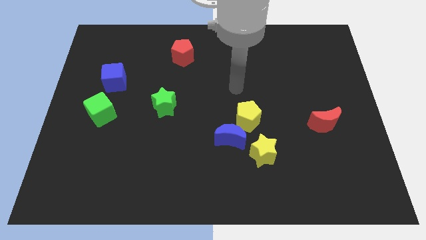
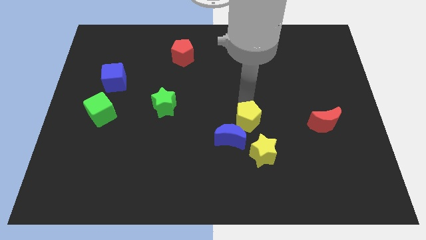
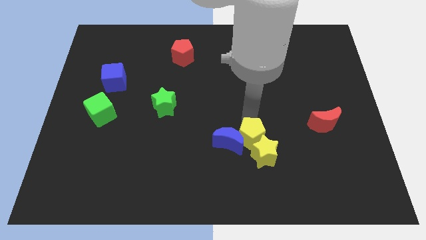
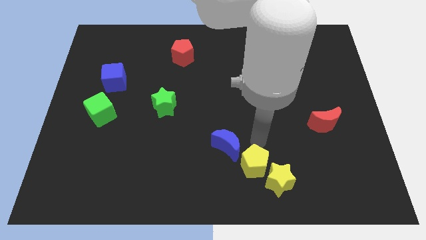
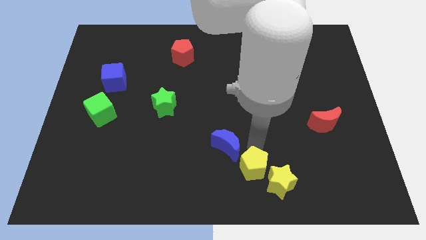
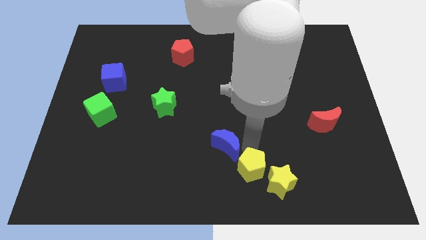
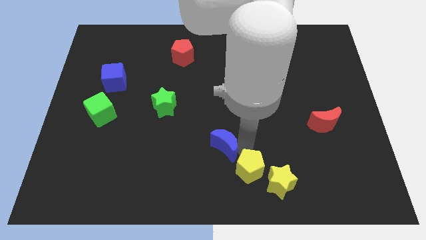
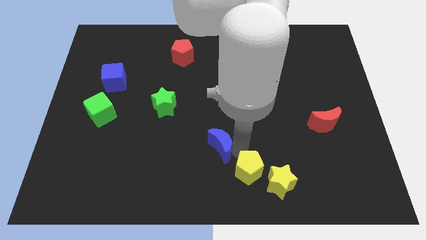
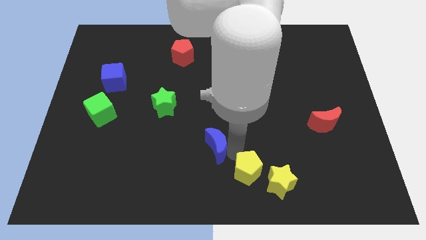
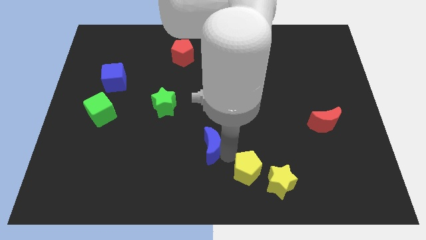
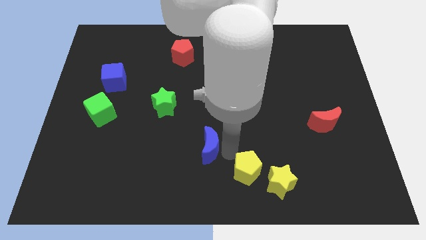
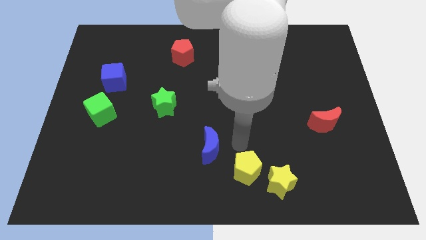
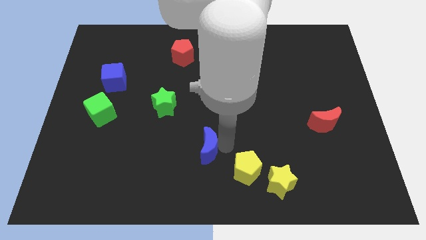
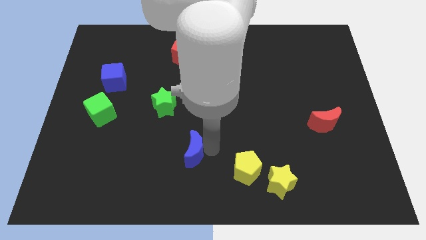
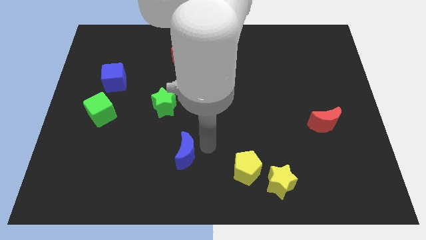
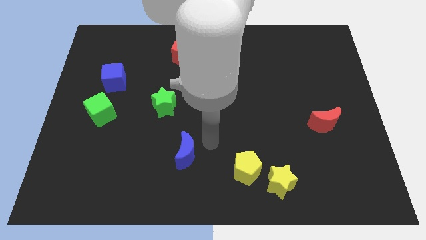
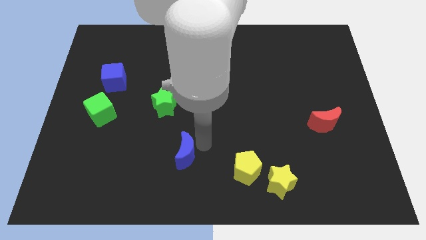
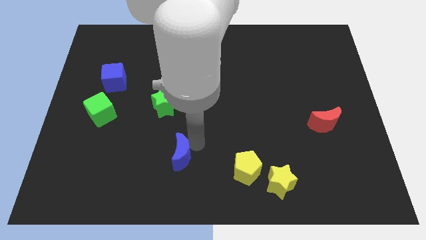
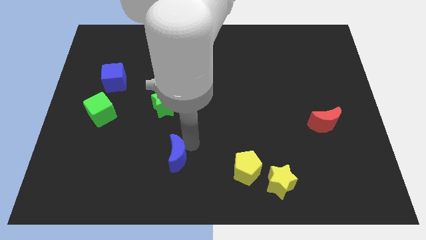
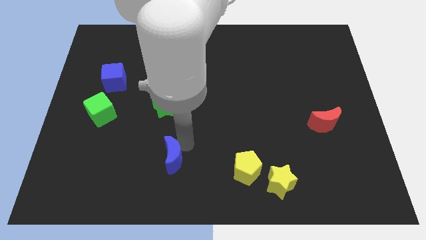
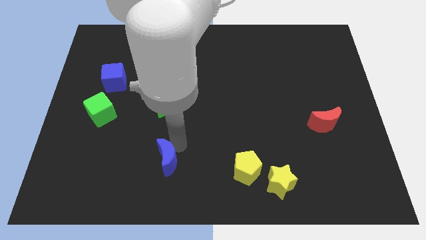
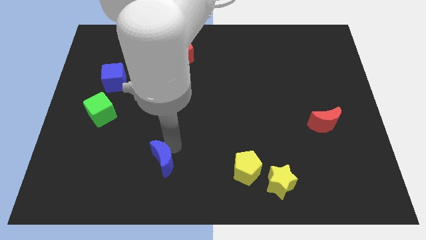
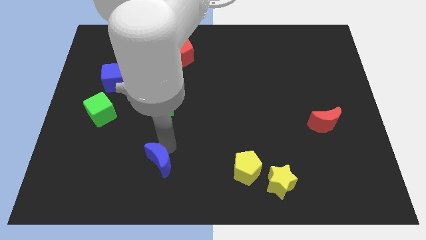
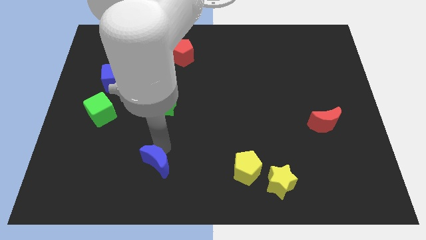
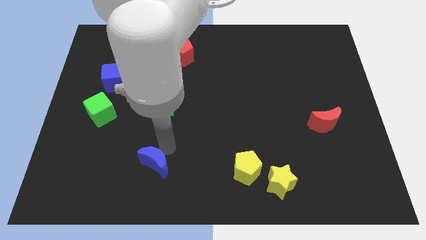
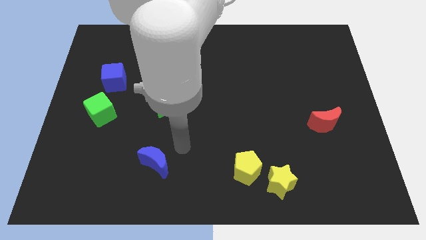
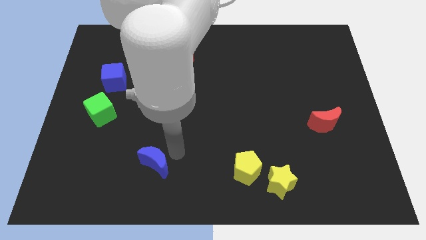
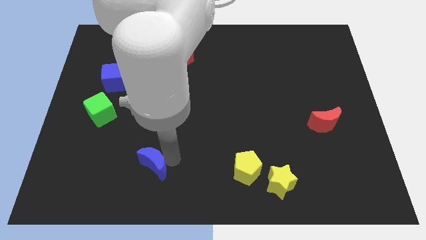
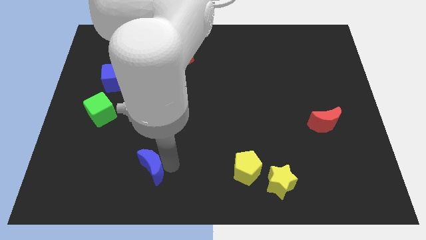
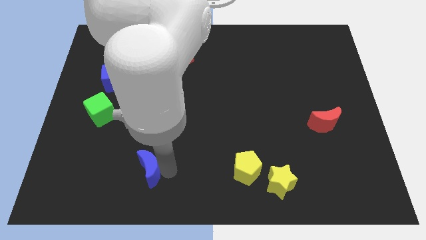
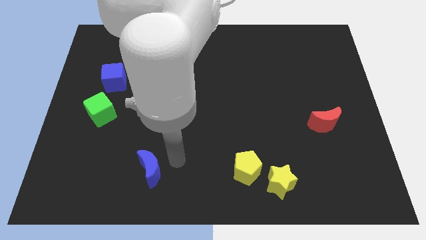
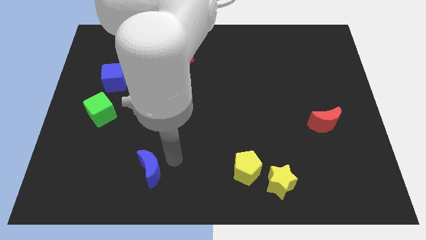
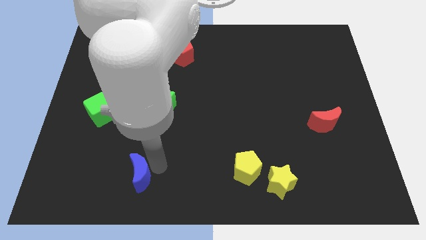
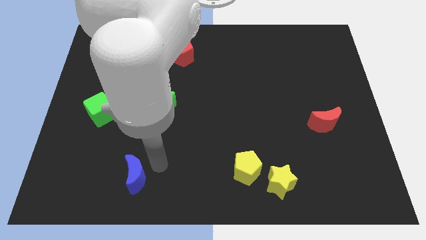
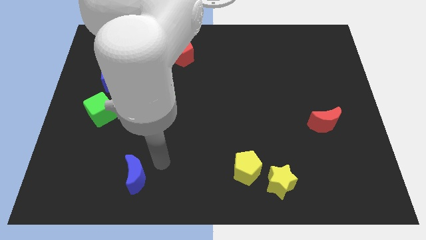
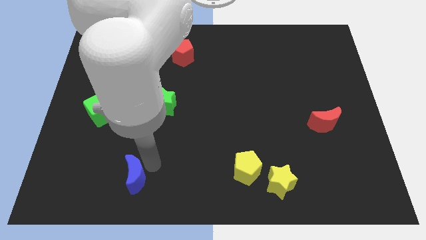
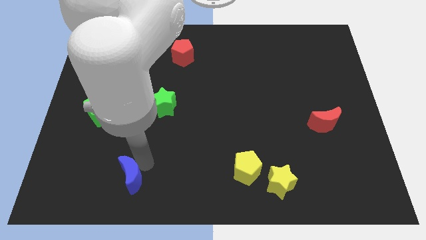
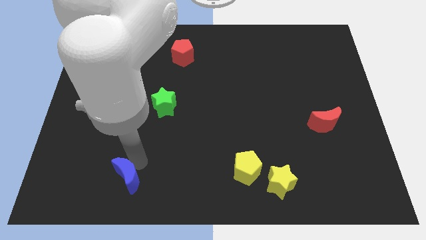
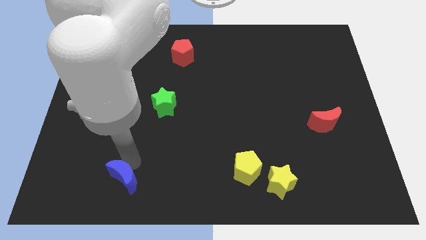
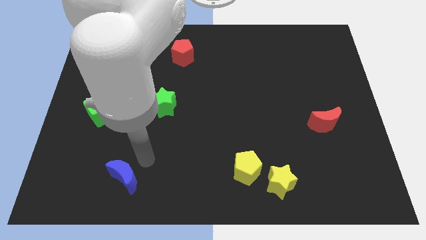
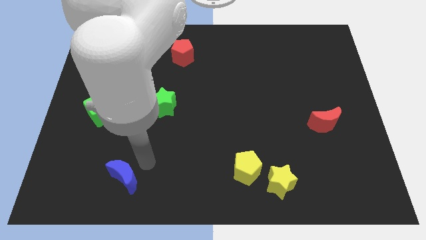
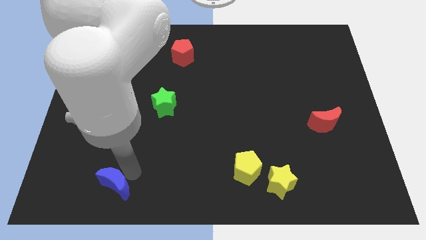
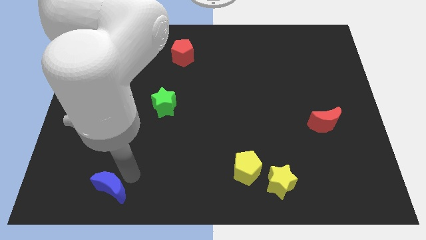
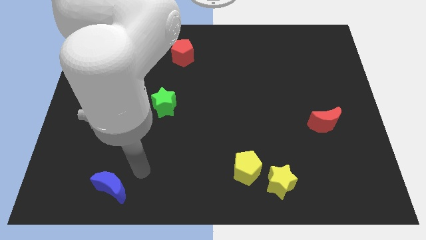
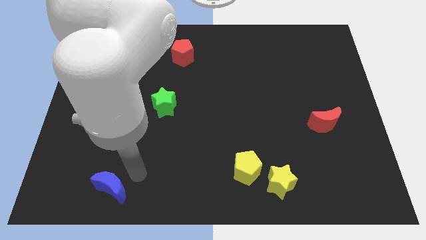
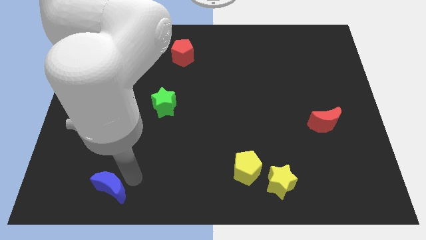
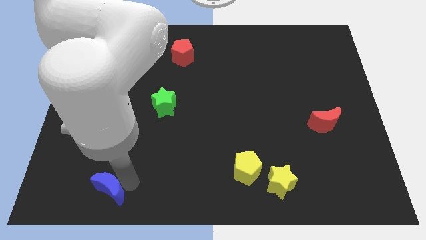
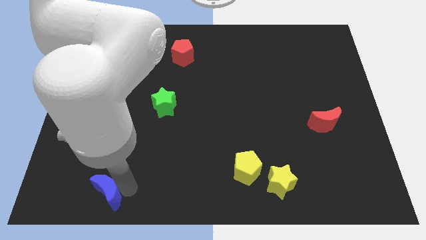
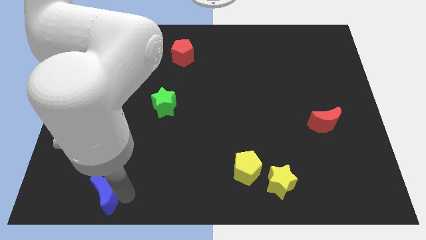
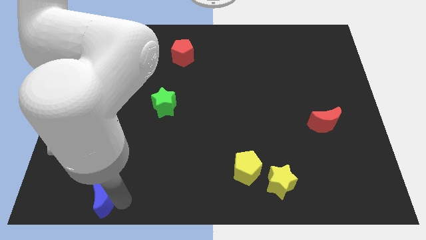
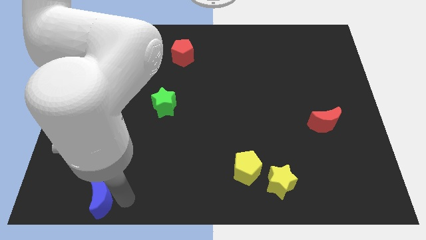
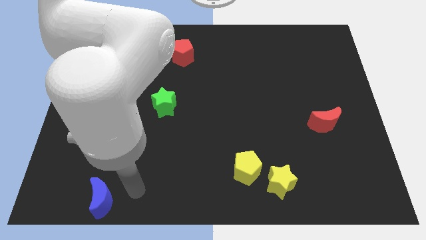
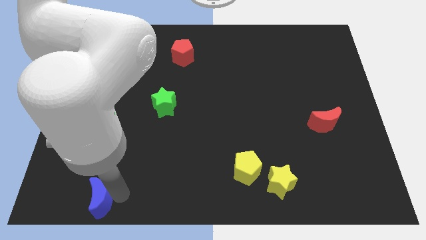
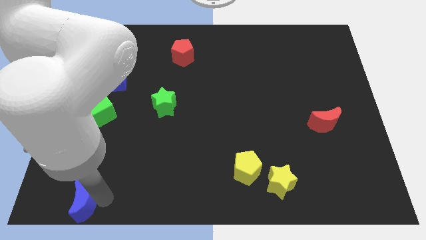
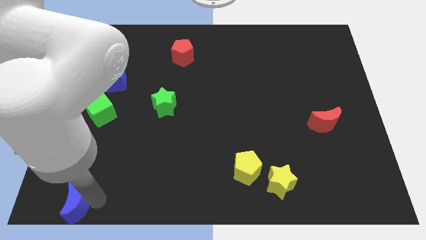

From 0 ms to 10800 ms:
slide the blue moon to the bottom left of the board

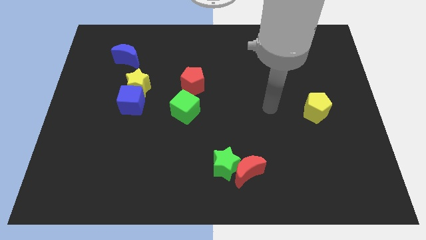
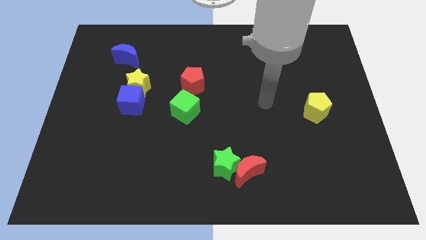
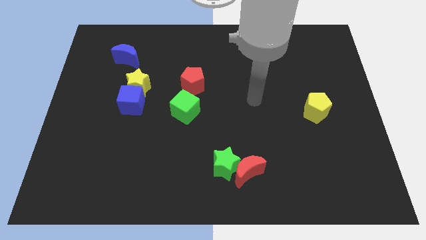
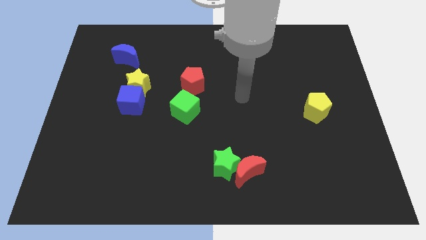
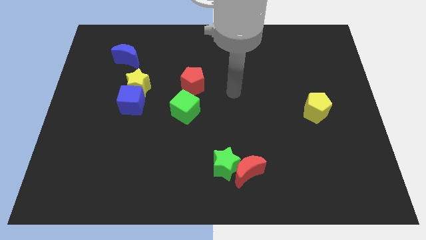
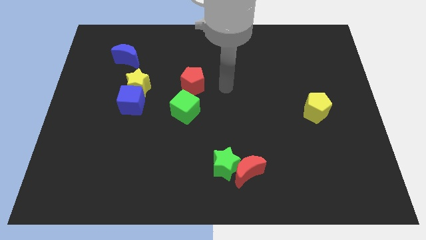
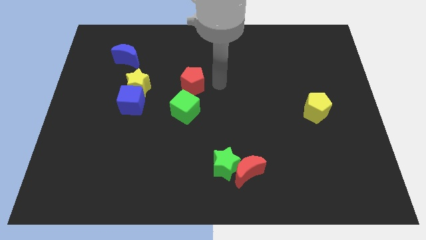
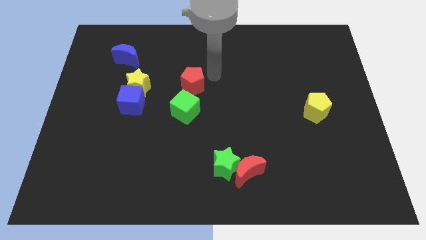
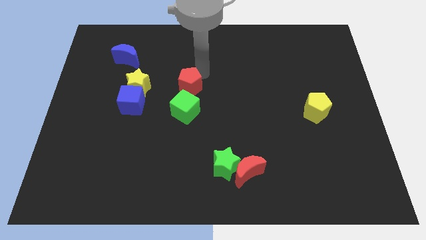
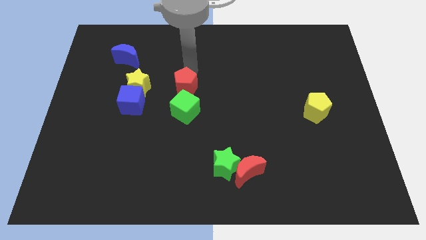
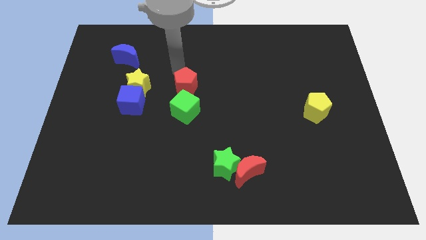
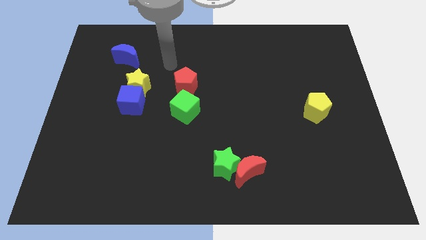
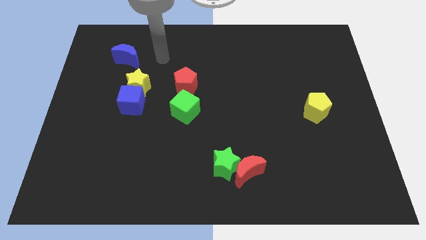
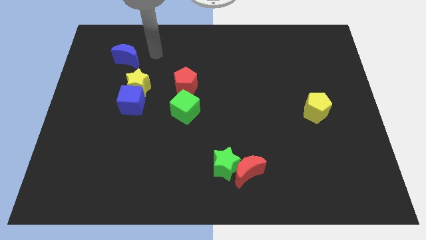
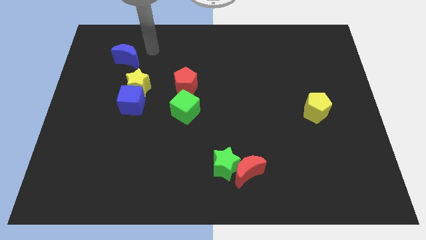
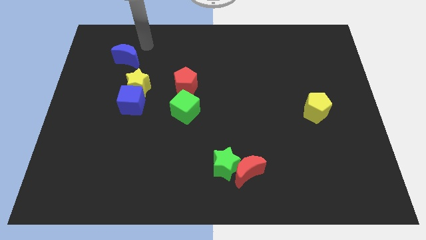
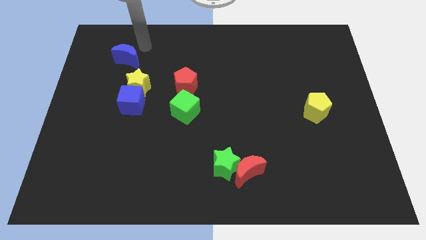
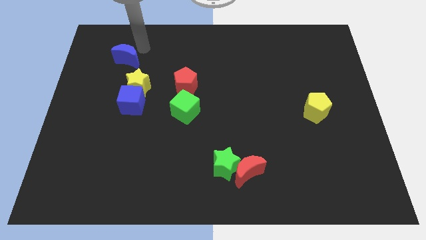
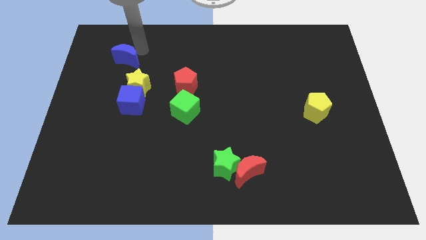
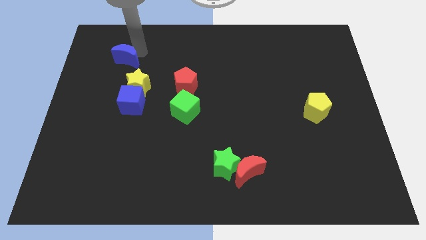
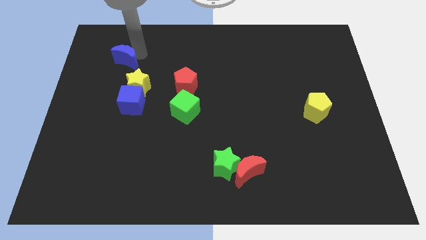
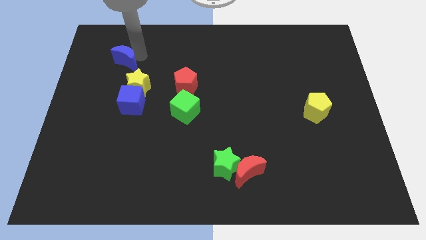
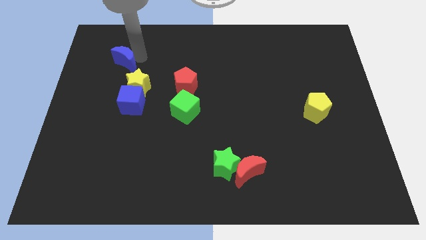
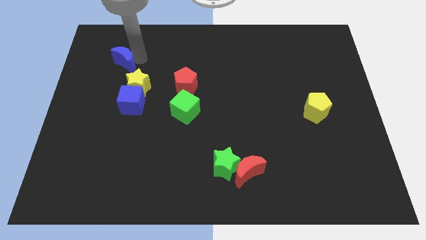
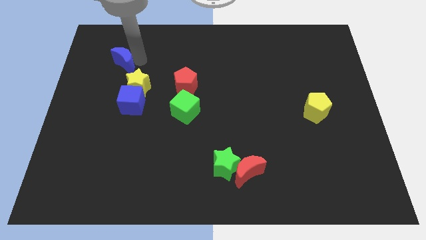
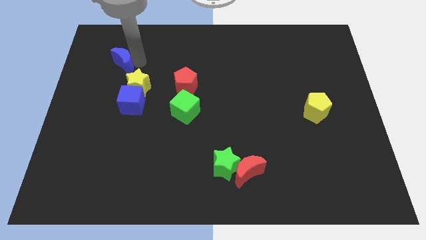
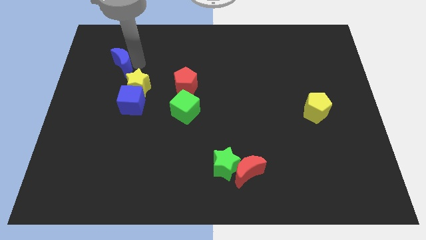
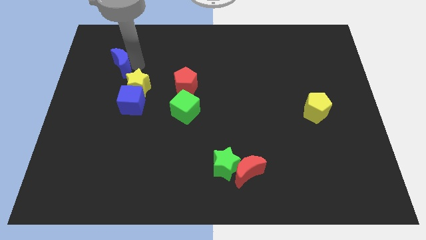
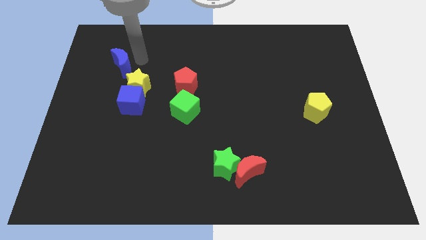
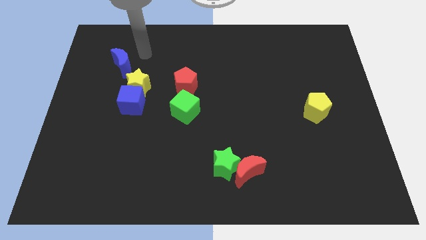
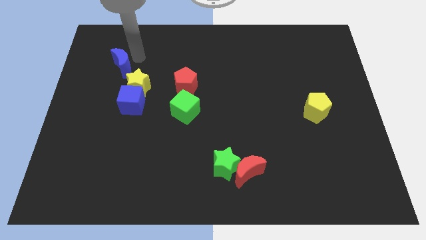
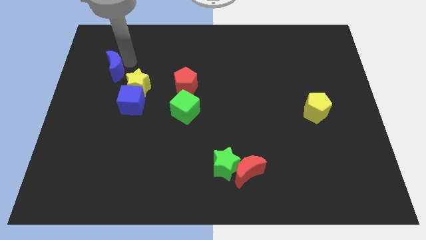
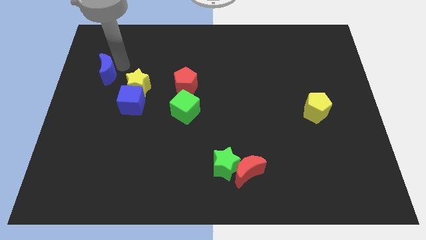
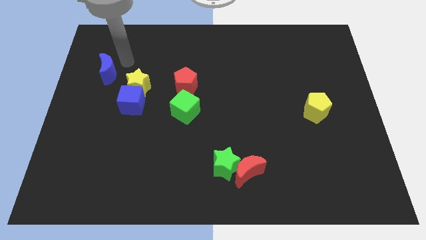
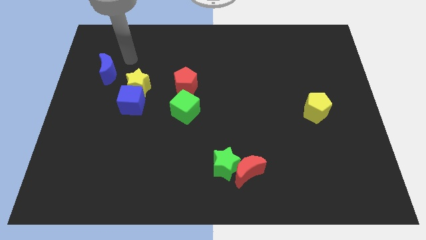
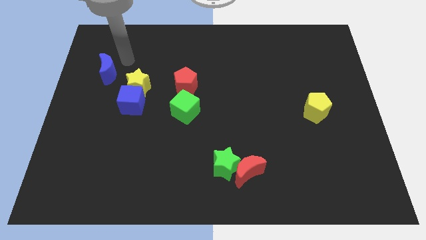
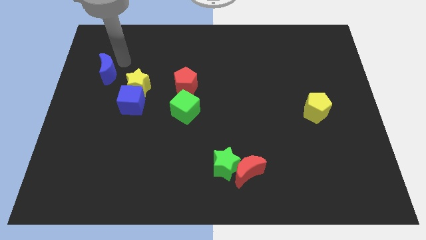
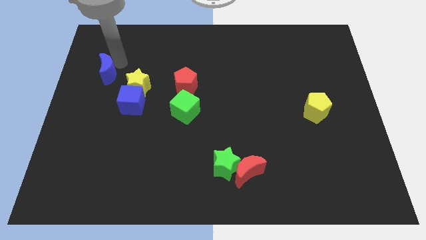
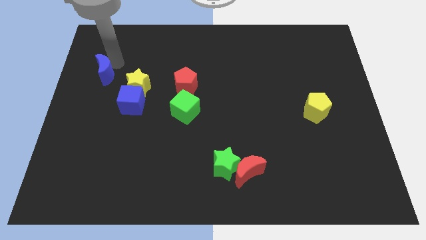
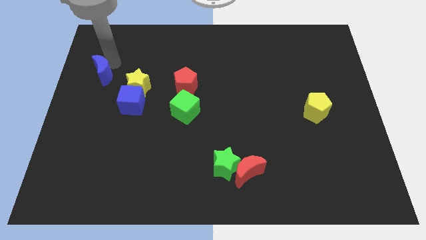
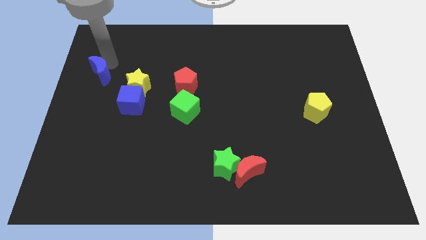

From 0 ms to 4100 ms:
push the blue moon to the left side of the board
